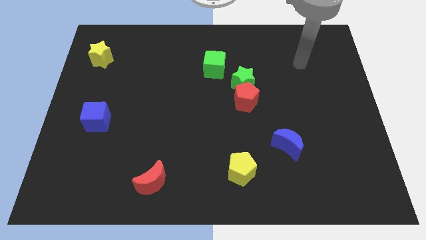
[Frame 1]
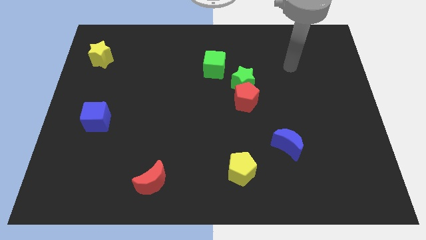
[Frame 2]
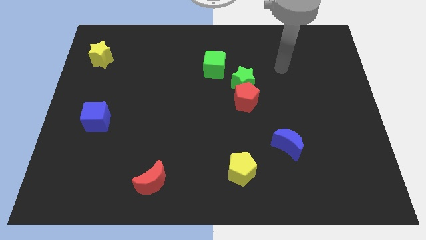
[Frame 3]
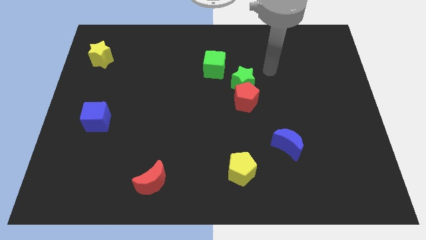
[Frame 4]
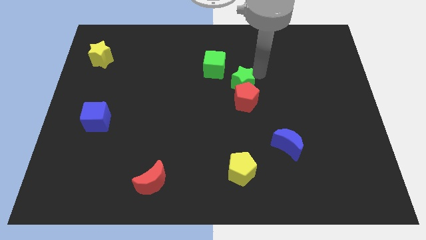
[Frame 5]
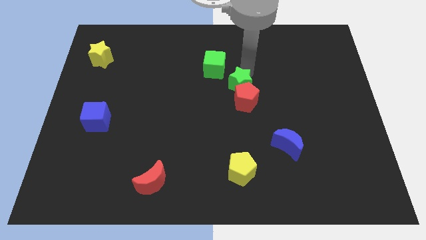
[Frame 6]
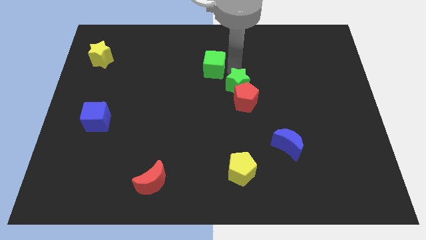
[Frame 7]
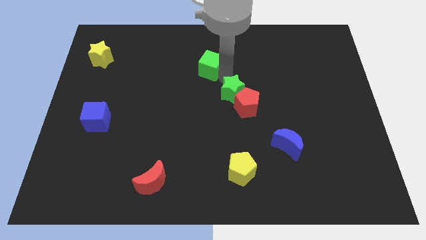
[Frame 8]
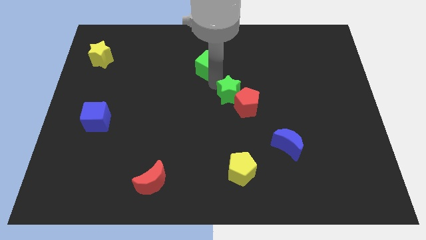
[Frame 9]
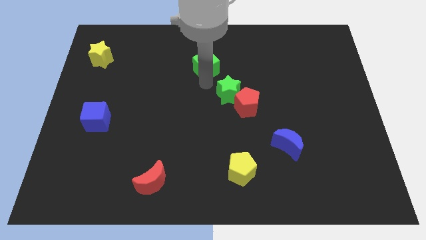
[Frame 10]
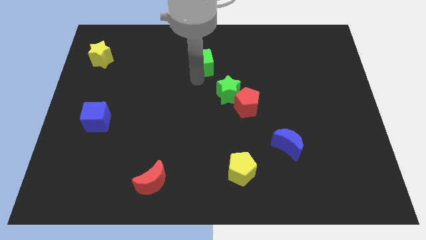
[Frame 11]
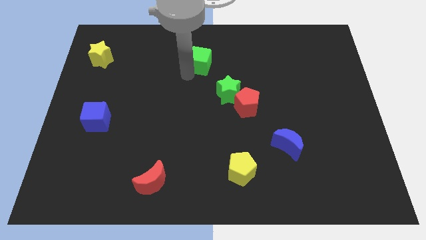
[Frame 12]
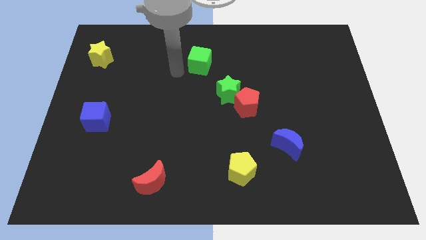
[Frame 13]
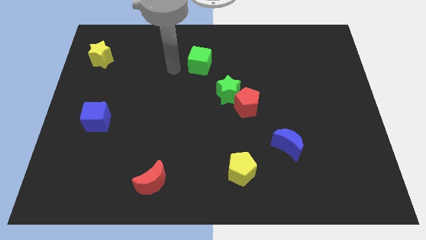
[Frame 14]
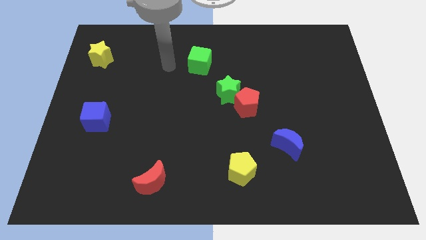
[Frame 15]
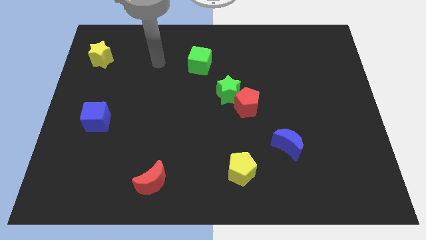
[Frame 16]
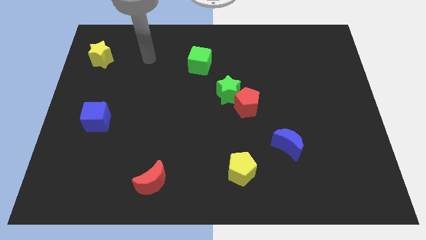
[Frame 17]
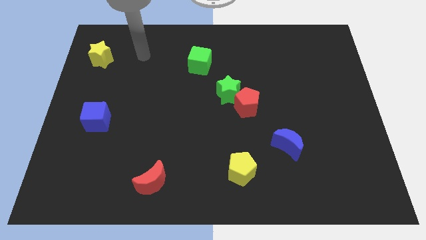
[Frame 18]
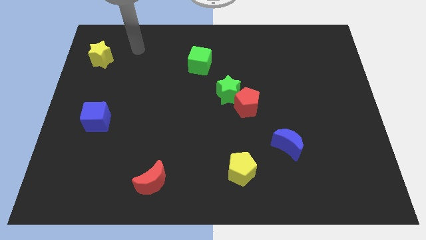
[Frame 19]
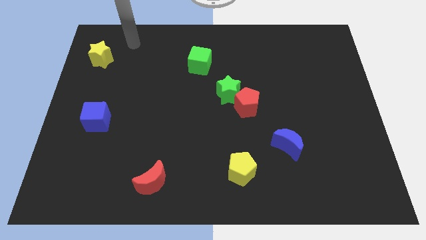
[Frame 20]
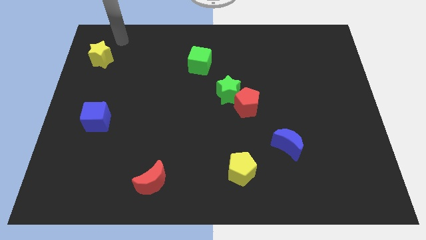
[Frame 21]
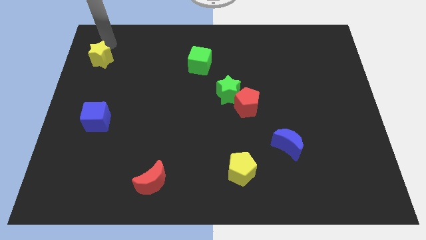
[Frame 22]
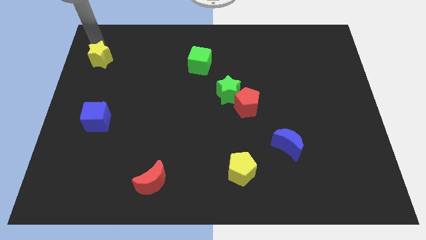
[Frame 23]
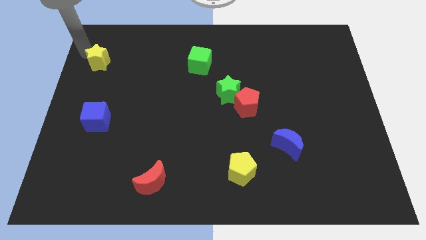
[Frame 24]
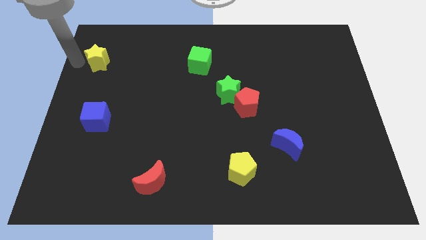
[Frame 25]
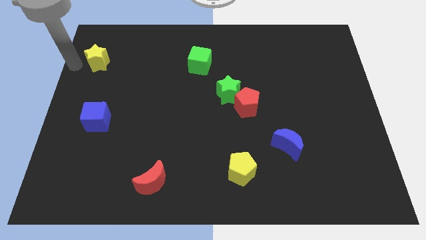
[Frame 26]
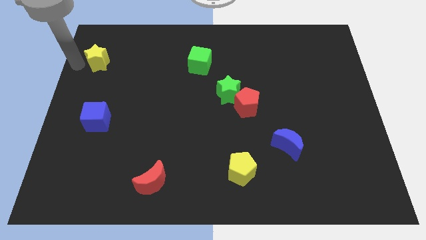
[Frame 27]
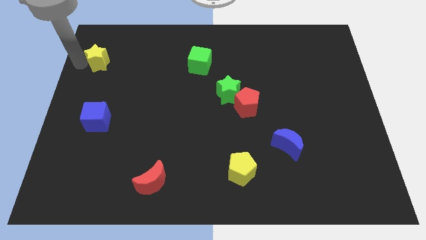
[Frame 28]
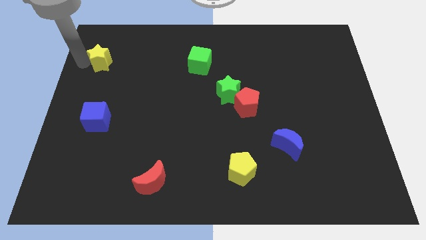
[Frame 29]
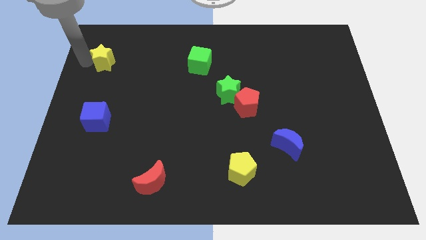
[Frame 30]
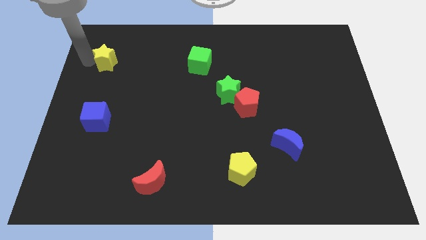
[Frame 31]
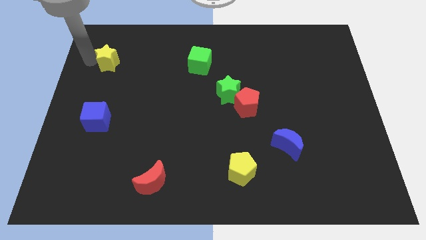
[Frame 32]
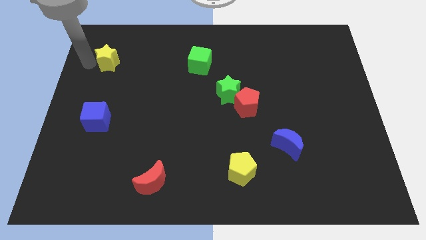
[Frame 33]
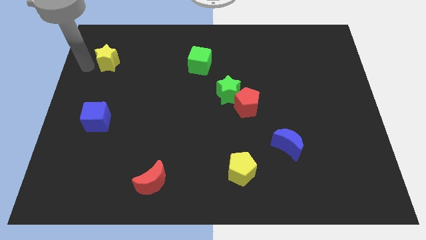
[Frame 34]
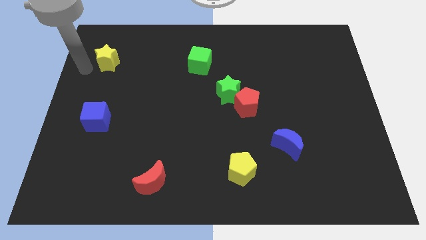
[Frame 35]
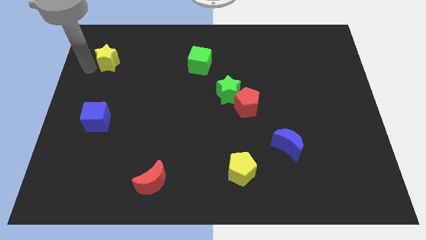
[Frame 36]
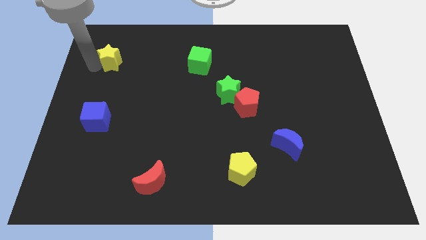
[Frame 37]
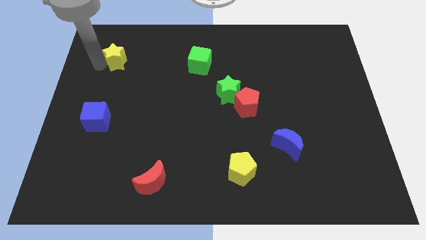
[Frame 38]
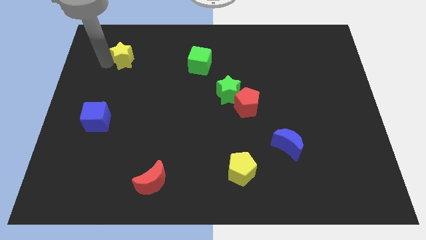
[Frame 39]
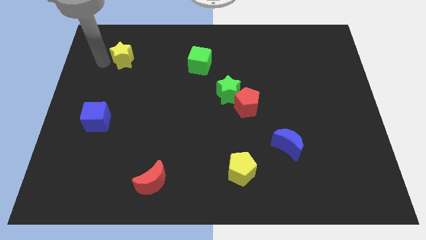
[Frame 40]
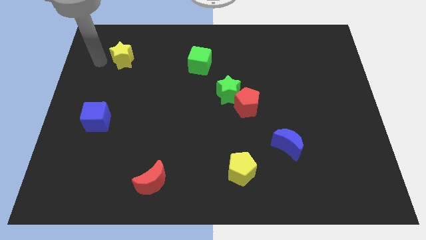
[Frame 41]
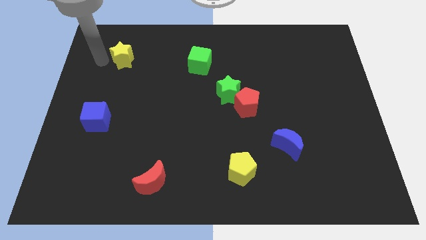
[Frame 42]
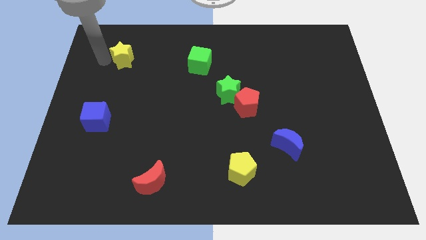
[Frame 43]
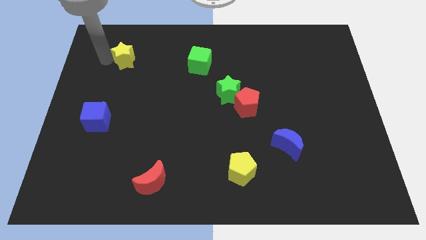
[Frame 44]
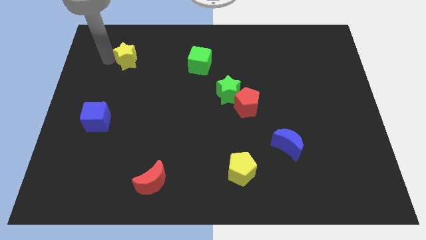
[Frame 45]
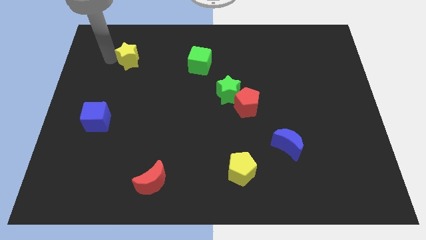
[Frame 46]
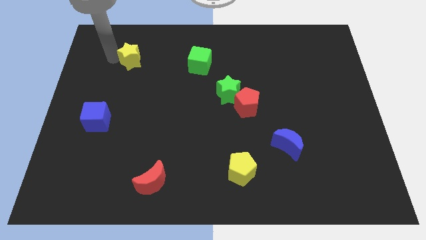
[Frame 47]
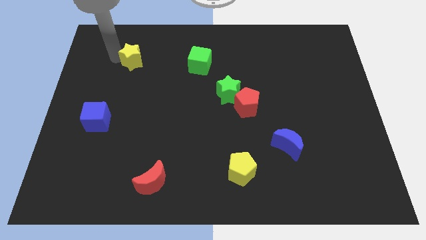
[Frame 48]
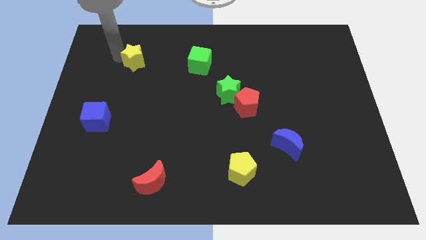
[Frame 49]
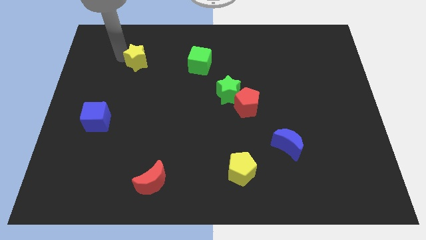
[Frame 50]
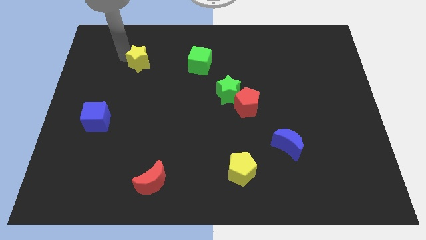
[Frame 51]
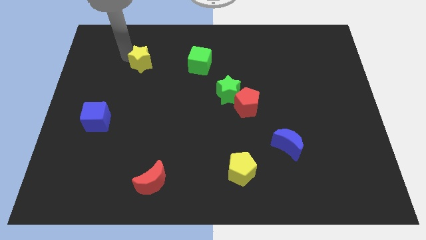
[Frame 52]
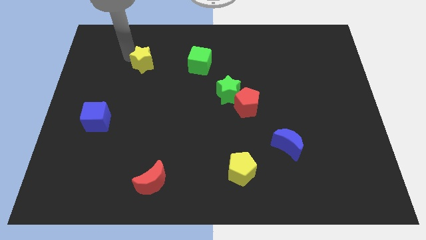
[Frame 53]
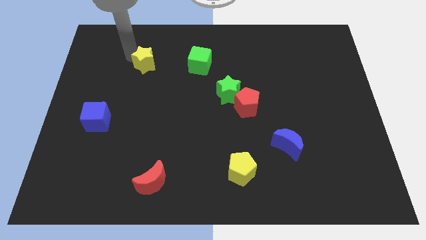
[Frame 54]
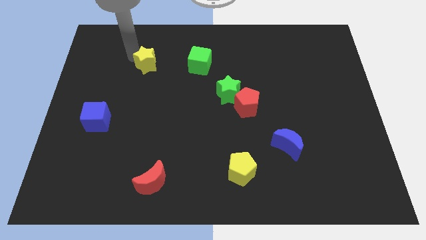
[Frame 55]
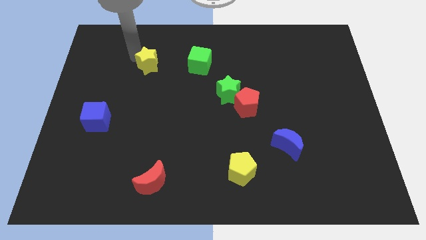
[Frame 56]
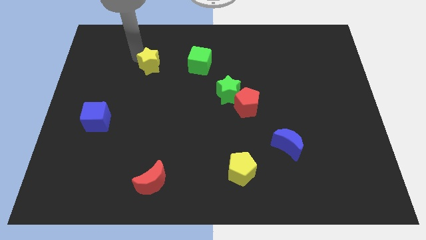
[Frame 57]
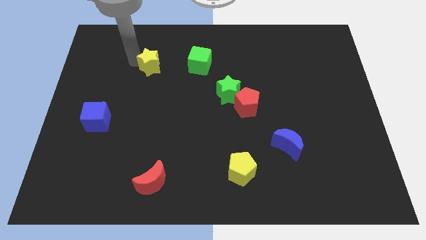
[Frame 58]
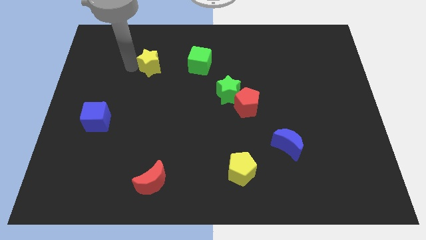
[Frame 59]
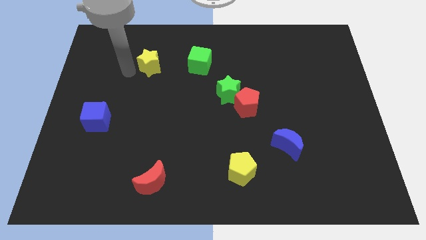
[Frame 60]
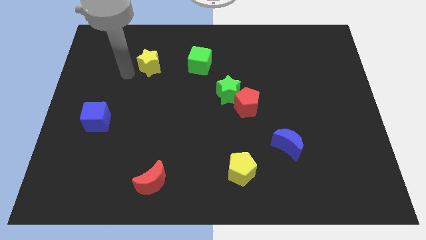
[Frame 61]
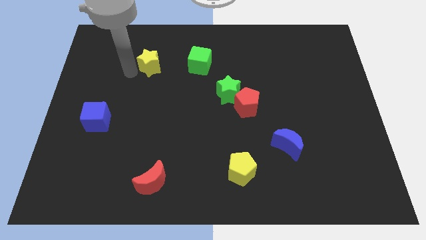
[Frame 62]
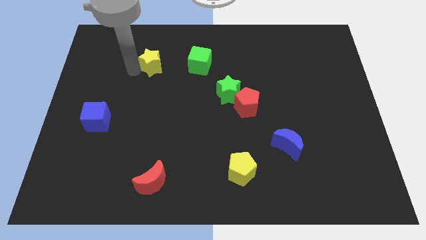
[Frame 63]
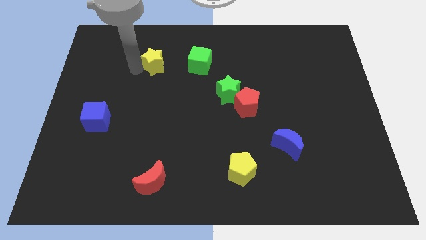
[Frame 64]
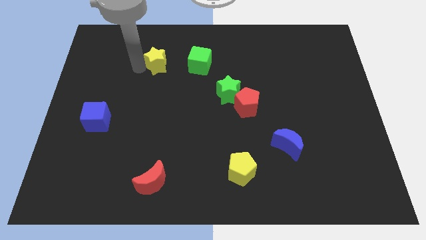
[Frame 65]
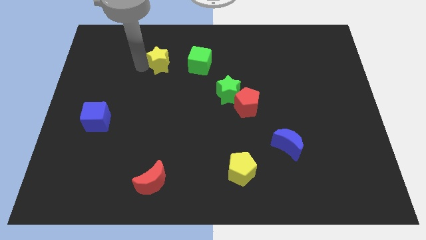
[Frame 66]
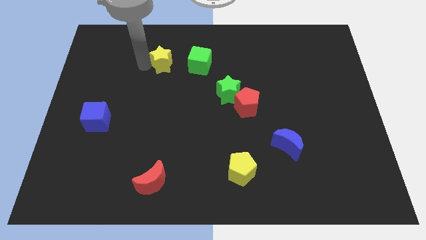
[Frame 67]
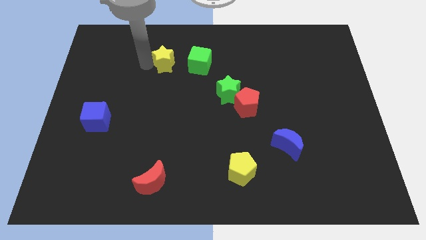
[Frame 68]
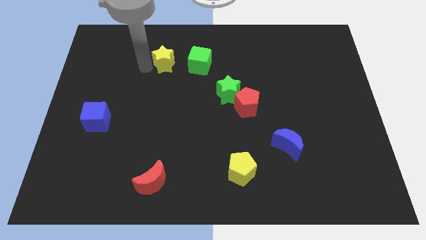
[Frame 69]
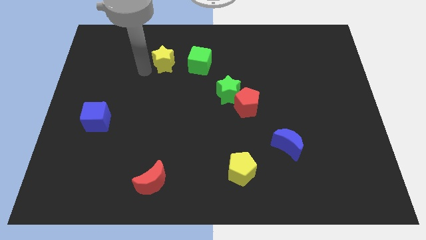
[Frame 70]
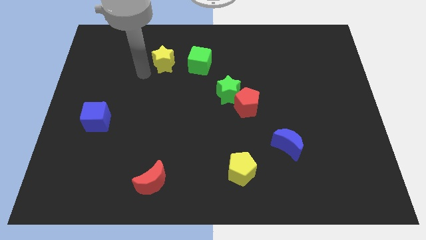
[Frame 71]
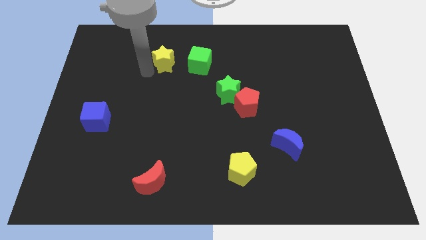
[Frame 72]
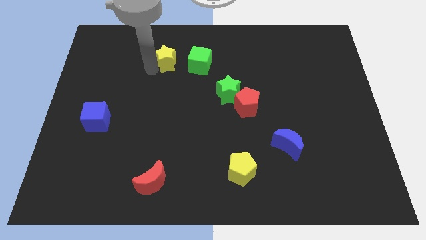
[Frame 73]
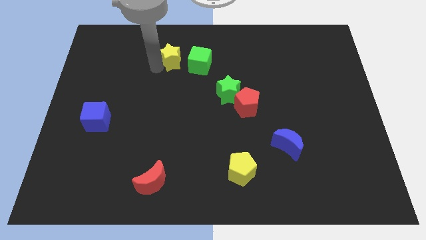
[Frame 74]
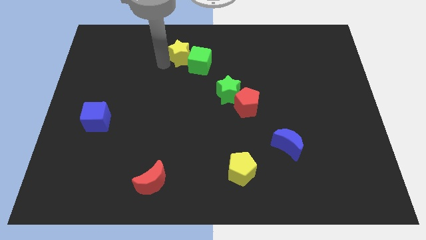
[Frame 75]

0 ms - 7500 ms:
slide the yellow star right

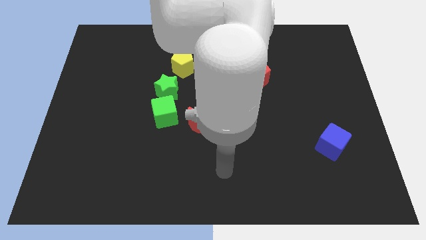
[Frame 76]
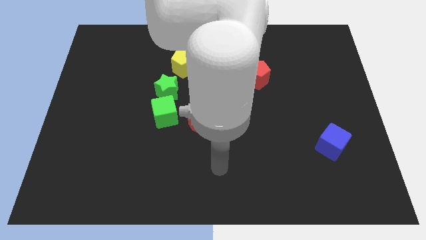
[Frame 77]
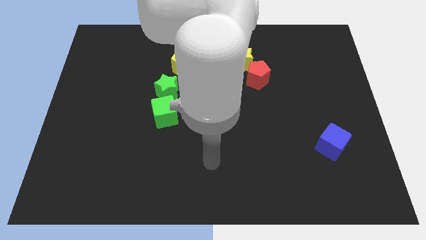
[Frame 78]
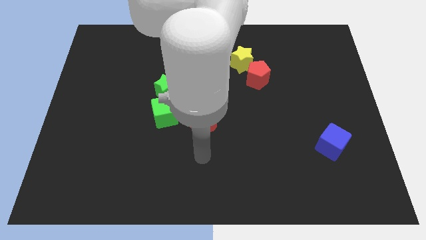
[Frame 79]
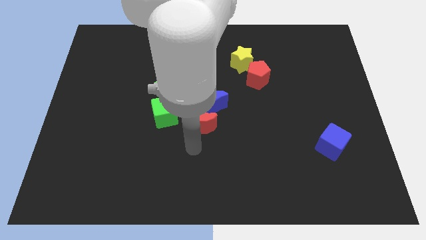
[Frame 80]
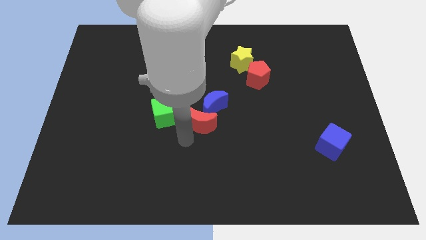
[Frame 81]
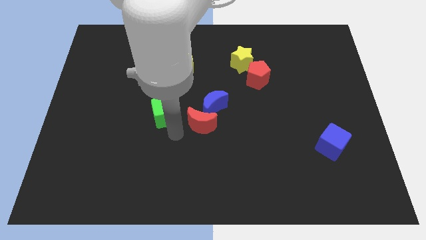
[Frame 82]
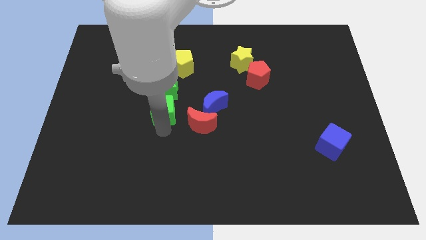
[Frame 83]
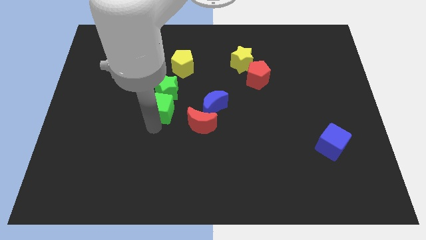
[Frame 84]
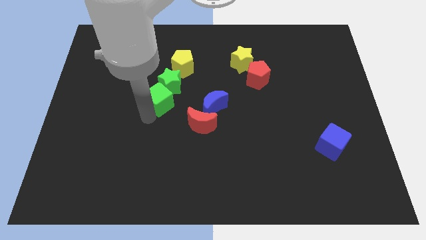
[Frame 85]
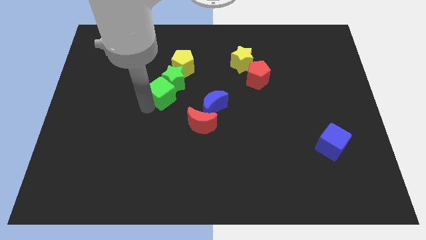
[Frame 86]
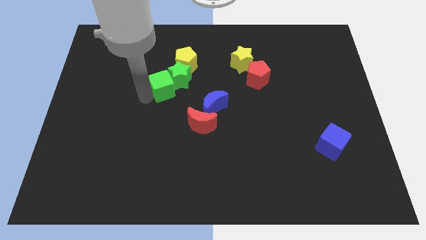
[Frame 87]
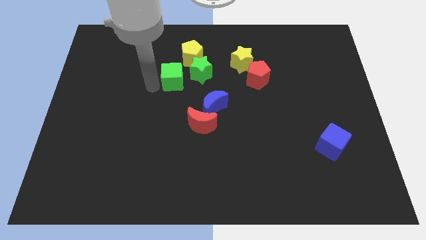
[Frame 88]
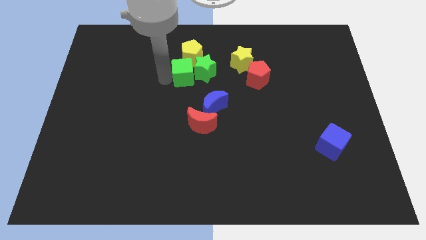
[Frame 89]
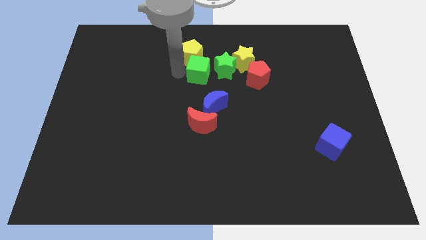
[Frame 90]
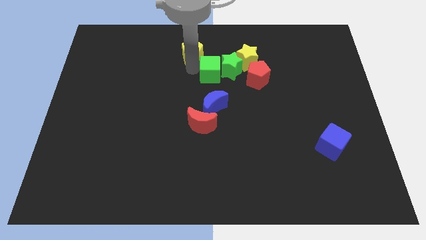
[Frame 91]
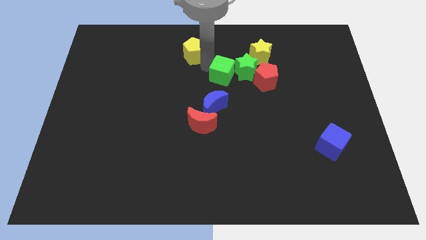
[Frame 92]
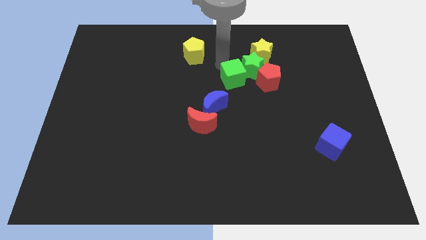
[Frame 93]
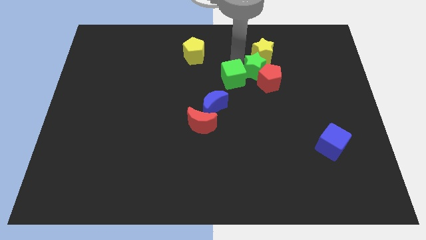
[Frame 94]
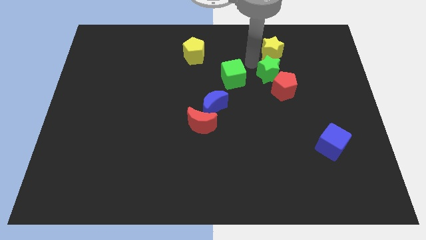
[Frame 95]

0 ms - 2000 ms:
slide the green star to the right
